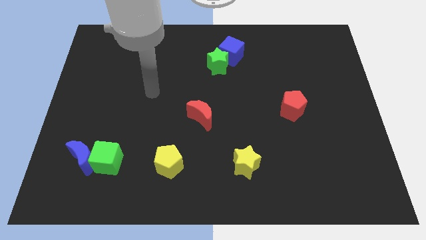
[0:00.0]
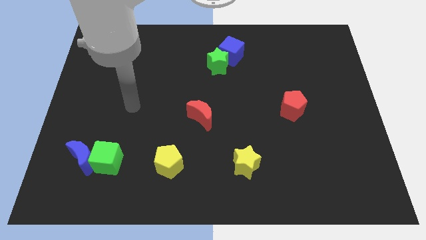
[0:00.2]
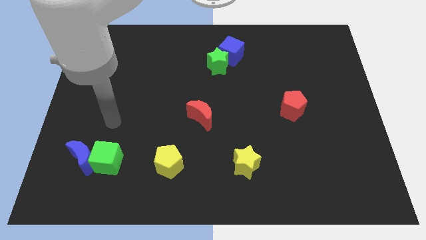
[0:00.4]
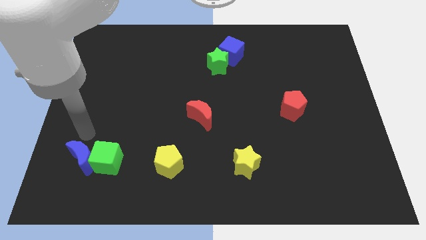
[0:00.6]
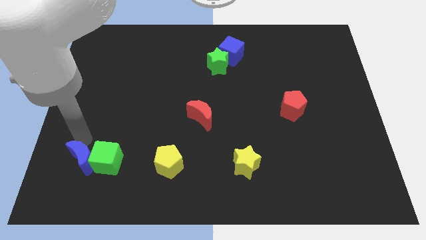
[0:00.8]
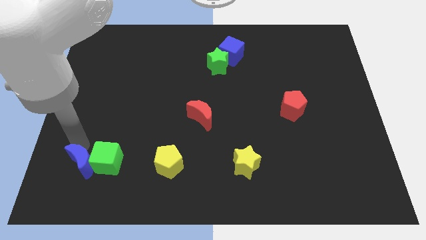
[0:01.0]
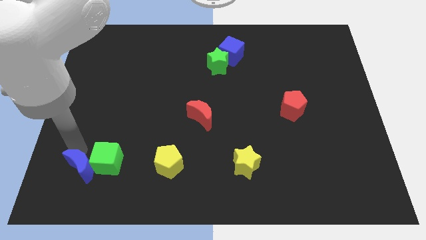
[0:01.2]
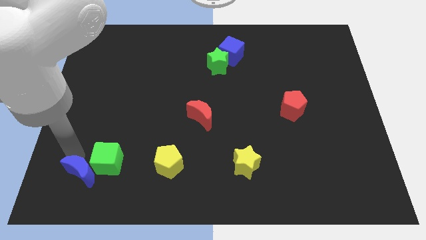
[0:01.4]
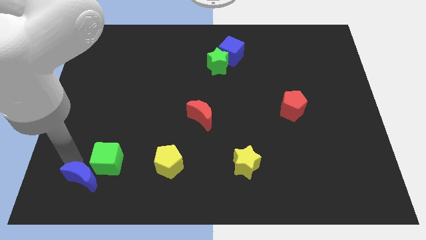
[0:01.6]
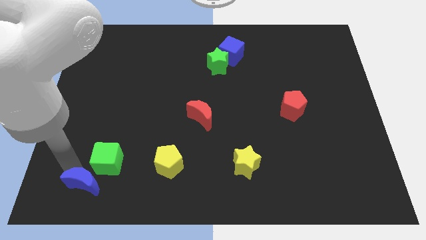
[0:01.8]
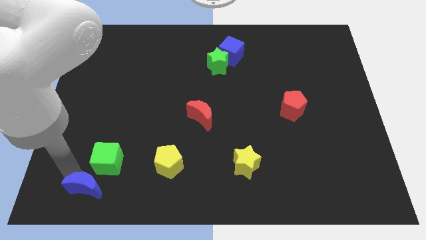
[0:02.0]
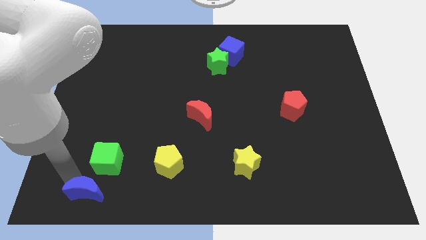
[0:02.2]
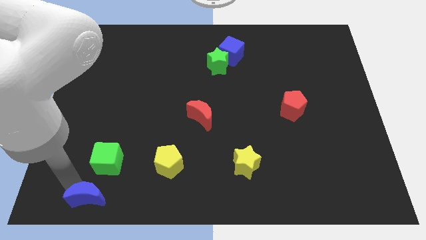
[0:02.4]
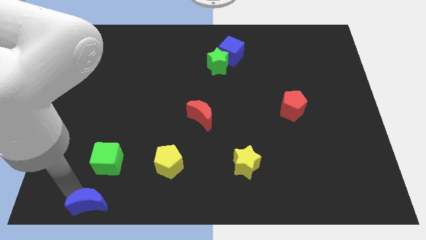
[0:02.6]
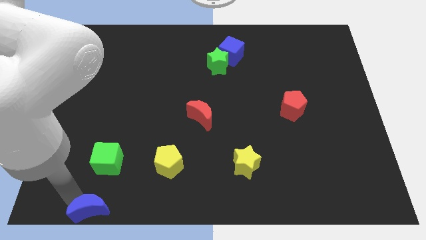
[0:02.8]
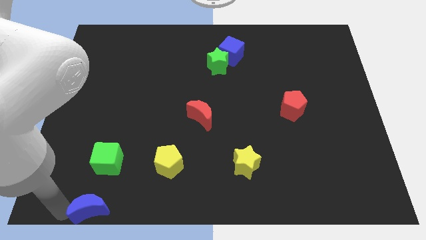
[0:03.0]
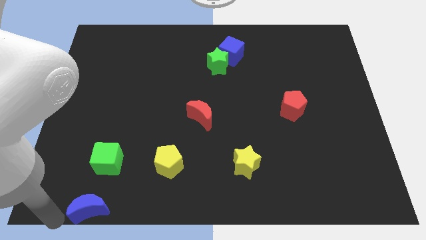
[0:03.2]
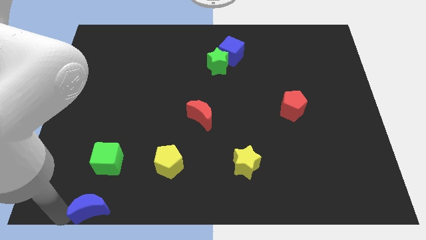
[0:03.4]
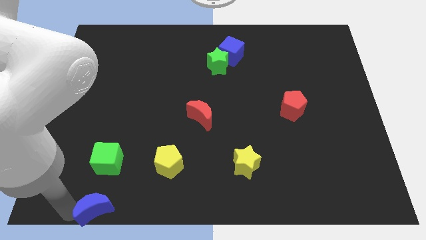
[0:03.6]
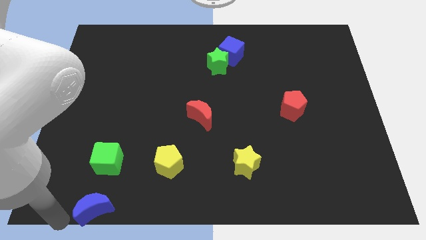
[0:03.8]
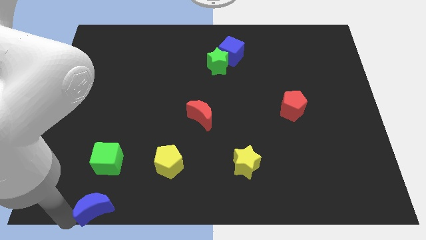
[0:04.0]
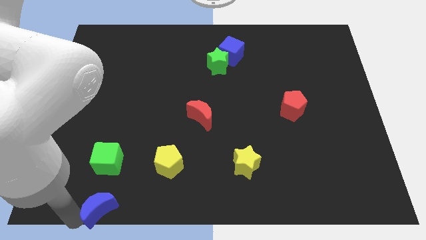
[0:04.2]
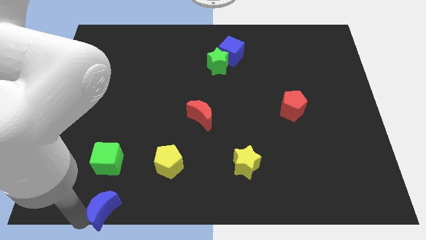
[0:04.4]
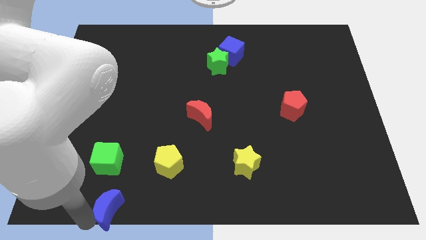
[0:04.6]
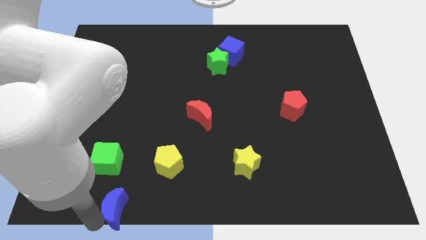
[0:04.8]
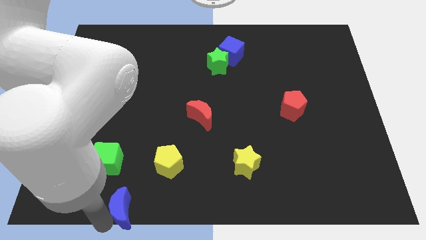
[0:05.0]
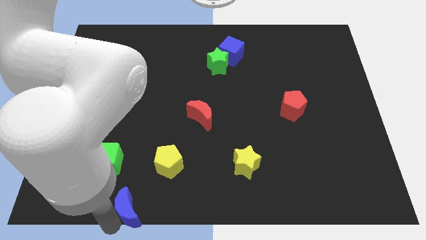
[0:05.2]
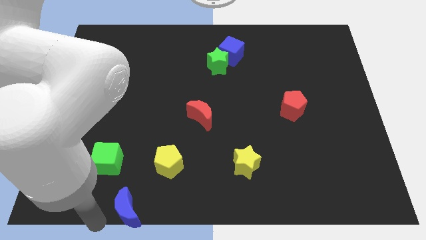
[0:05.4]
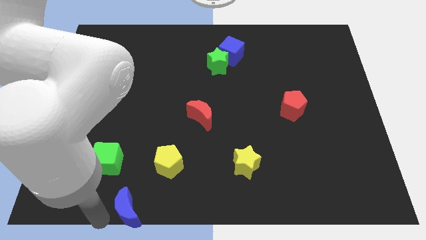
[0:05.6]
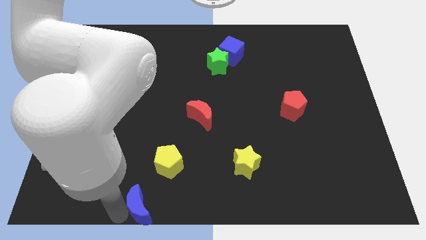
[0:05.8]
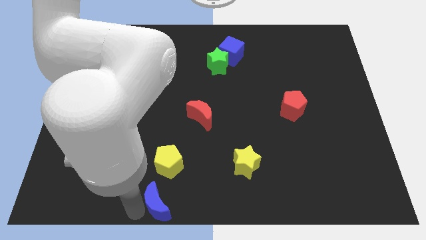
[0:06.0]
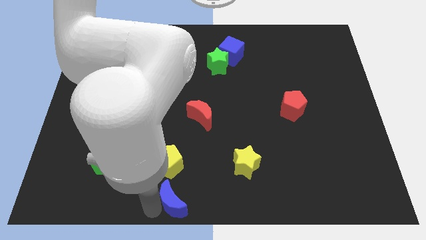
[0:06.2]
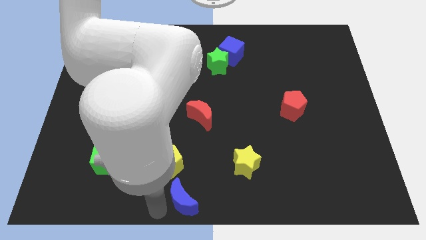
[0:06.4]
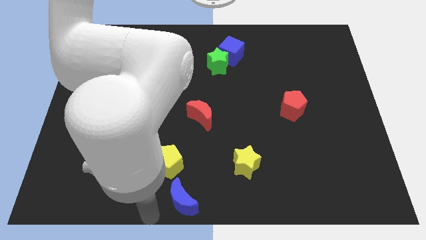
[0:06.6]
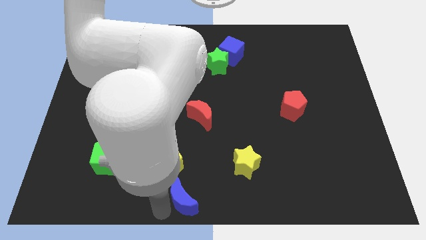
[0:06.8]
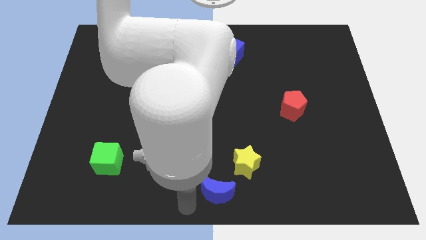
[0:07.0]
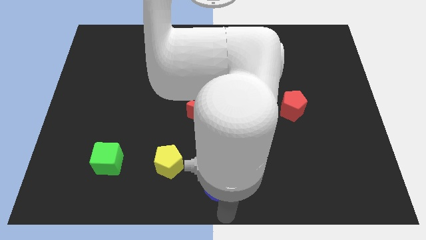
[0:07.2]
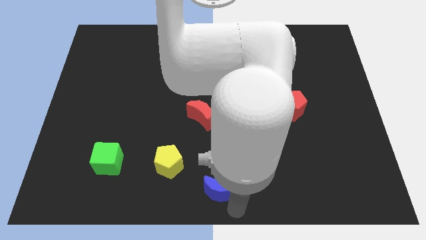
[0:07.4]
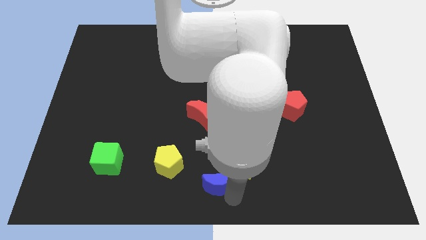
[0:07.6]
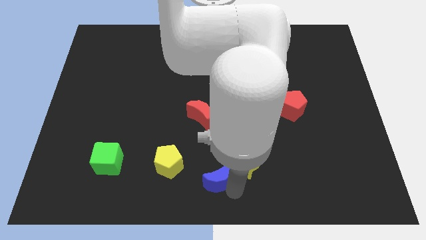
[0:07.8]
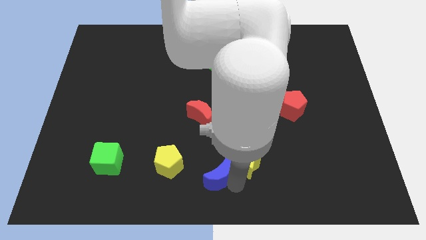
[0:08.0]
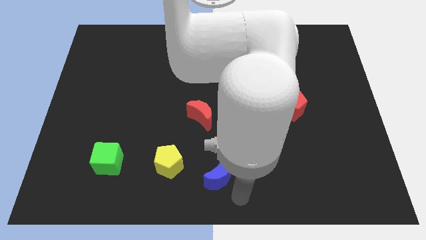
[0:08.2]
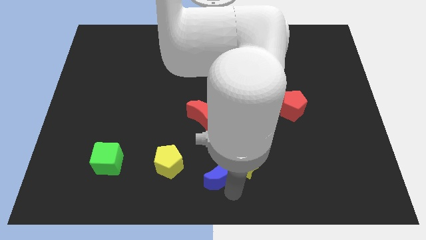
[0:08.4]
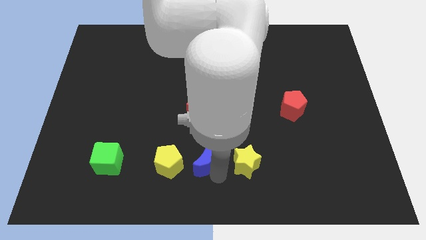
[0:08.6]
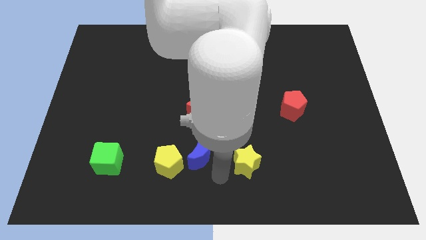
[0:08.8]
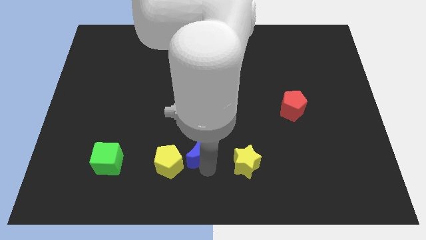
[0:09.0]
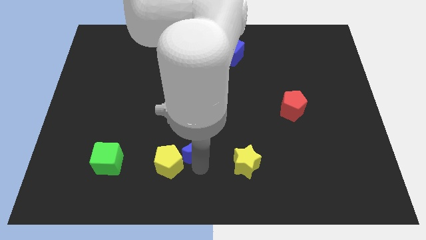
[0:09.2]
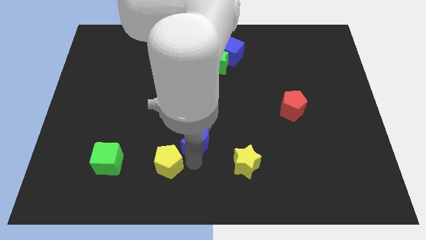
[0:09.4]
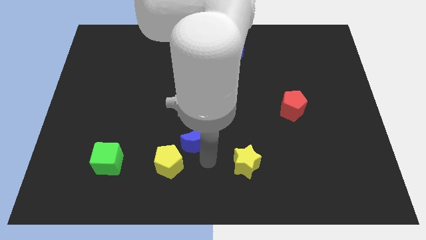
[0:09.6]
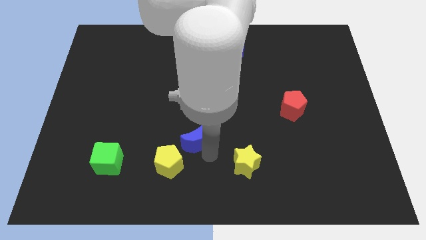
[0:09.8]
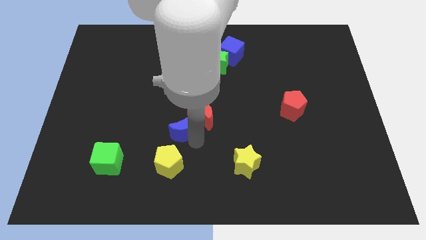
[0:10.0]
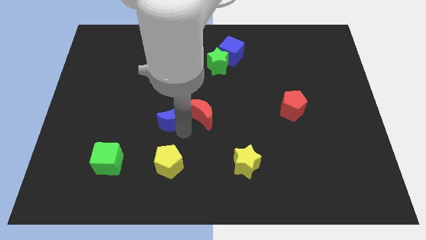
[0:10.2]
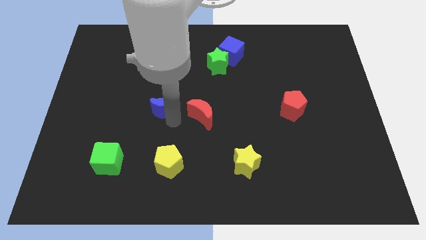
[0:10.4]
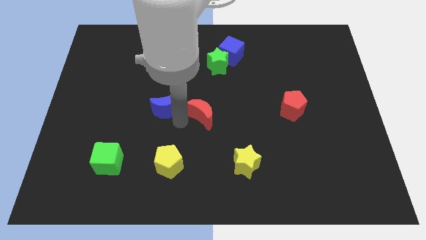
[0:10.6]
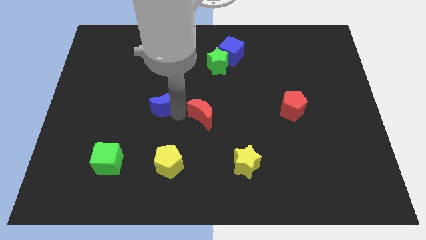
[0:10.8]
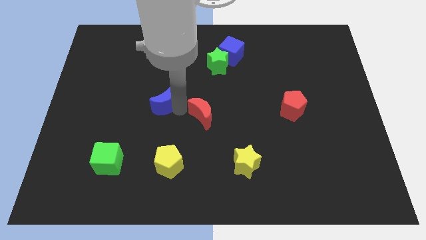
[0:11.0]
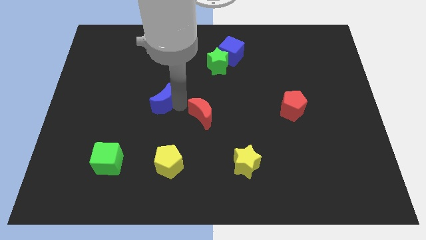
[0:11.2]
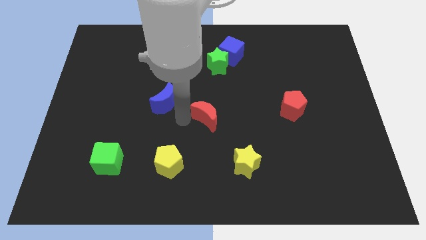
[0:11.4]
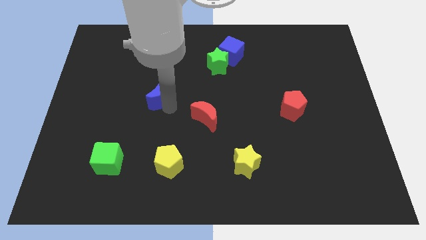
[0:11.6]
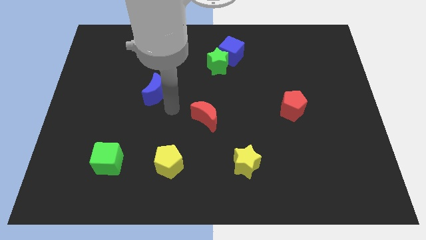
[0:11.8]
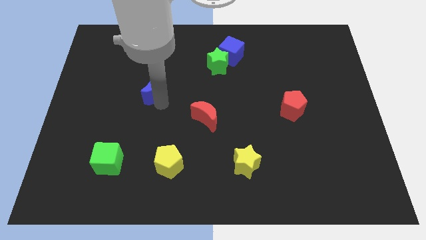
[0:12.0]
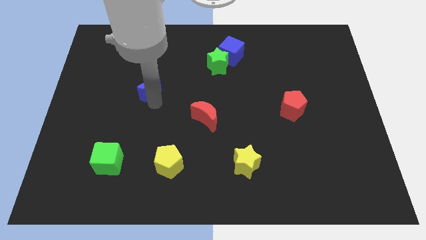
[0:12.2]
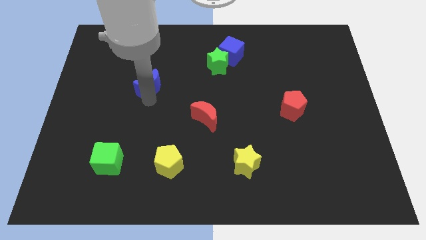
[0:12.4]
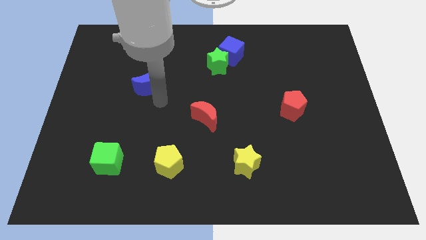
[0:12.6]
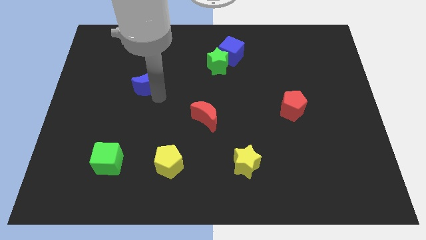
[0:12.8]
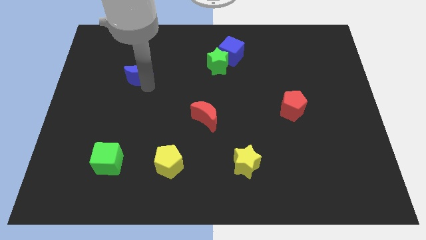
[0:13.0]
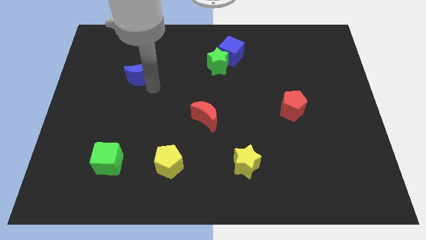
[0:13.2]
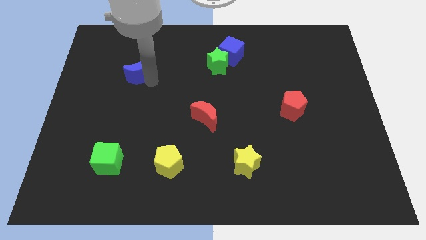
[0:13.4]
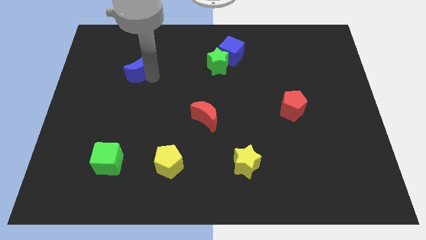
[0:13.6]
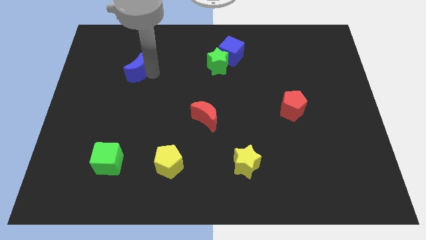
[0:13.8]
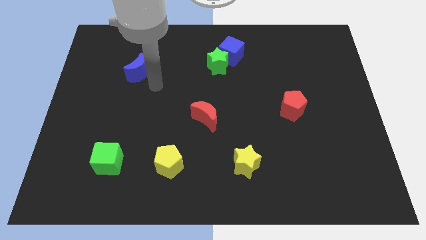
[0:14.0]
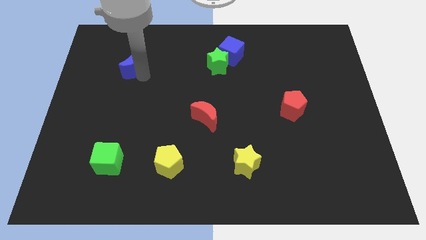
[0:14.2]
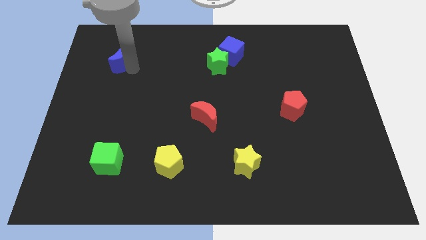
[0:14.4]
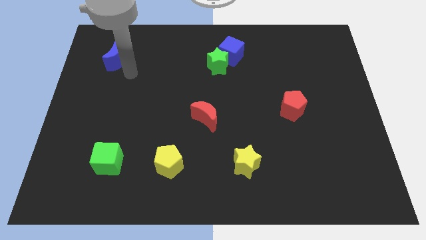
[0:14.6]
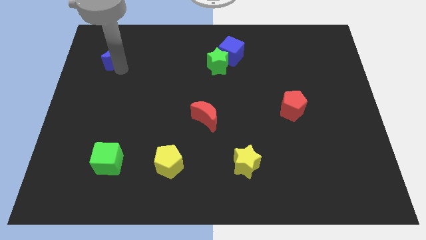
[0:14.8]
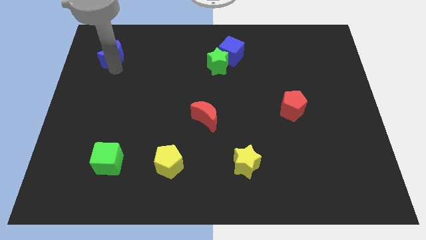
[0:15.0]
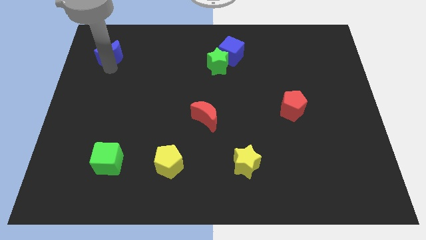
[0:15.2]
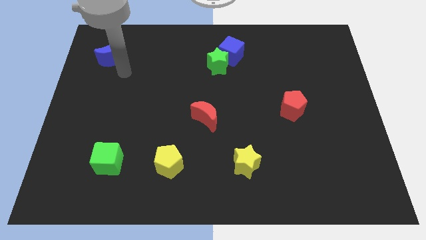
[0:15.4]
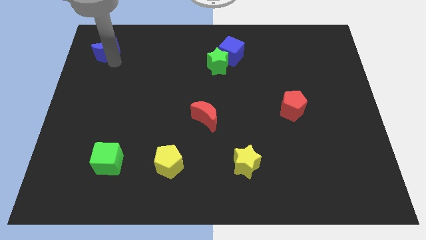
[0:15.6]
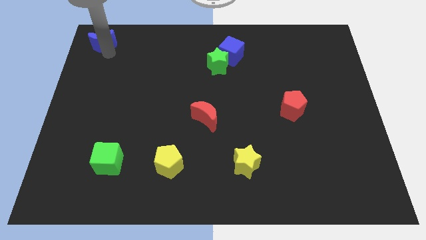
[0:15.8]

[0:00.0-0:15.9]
put the blue moon to the top left of the board
